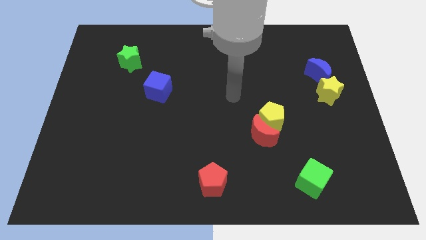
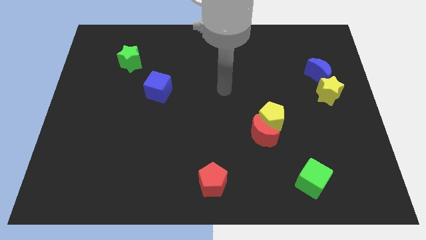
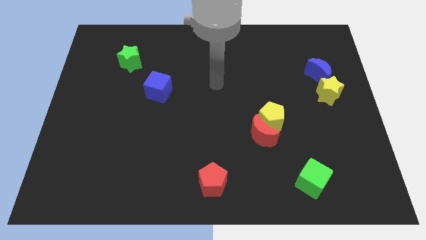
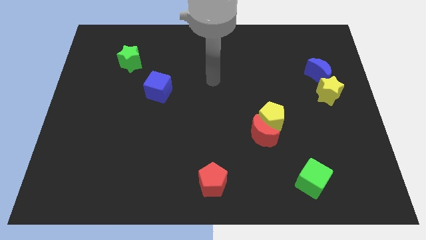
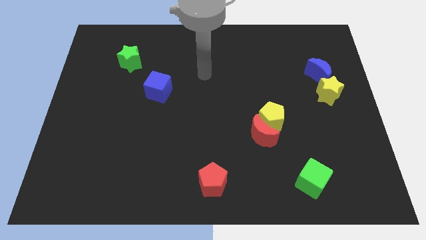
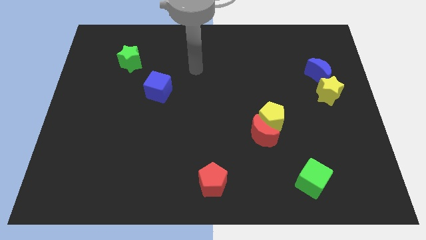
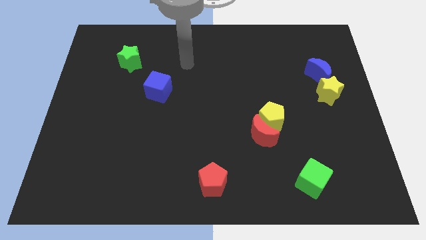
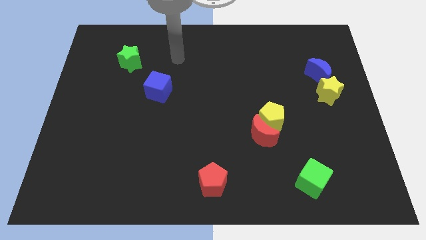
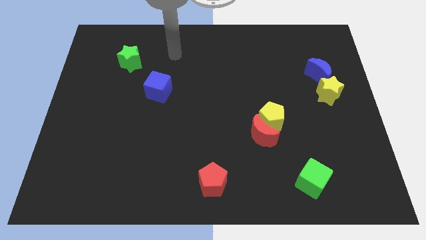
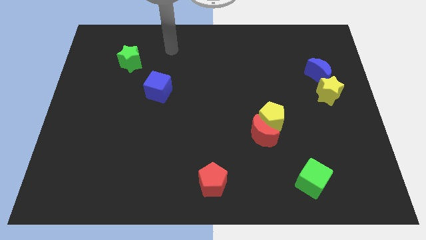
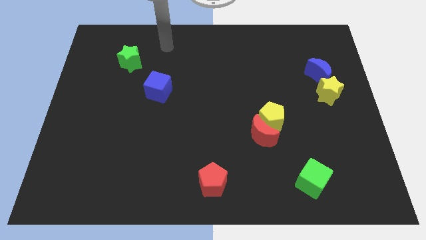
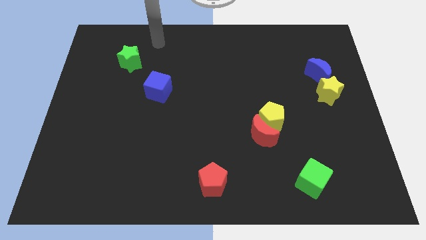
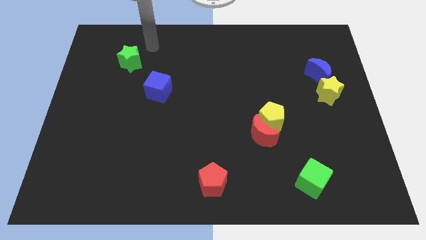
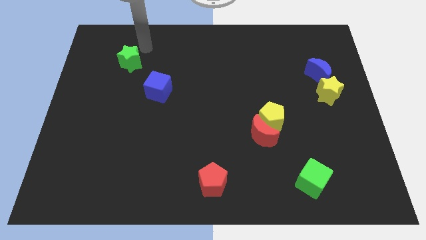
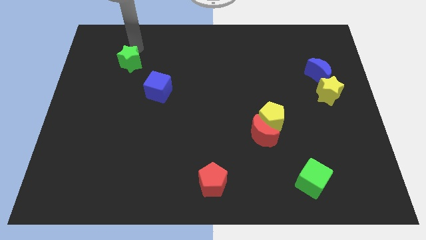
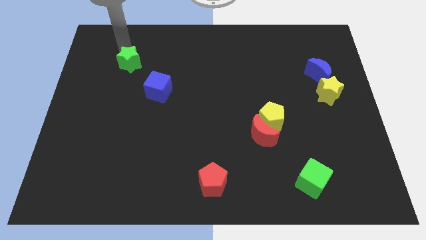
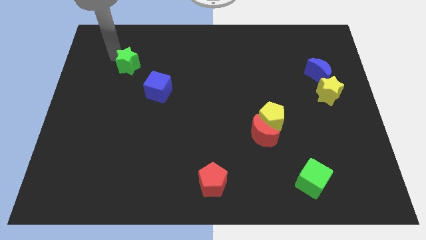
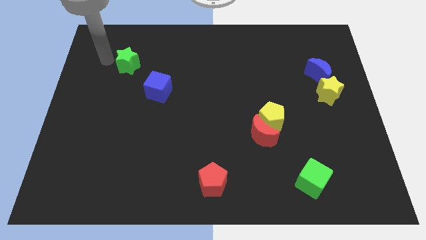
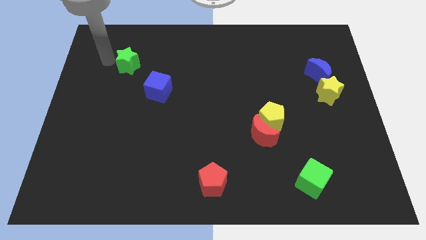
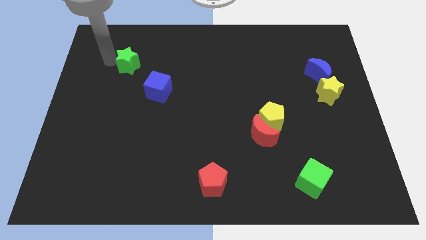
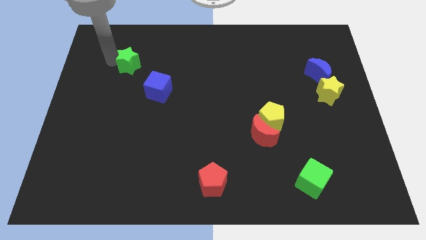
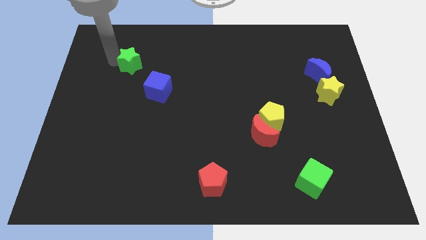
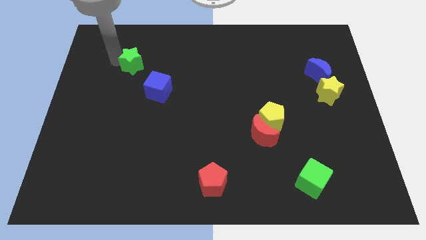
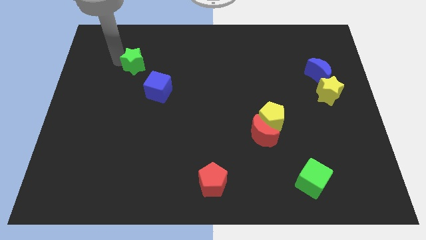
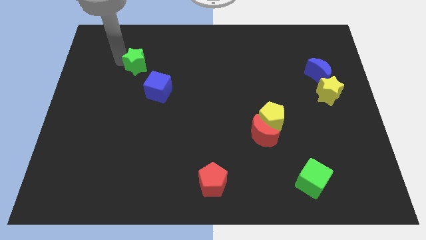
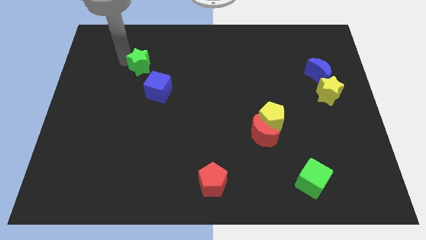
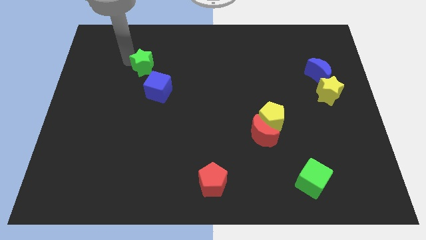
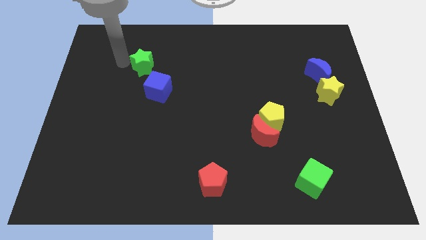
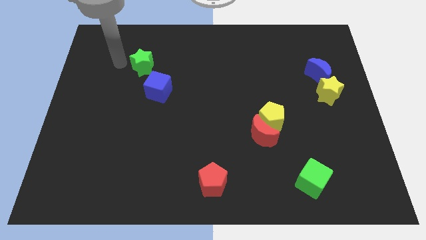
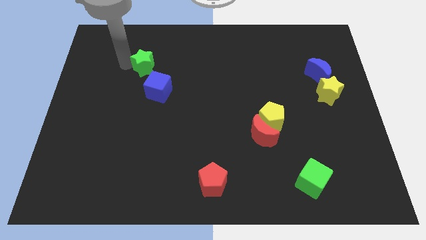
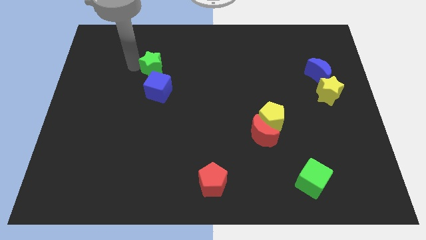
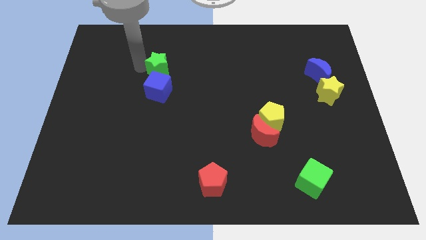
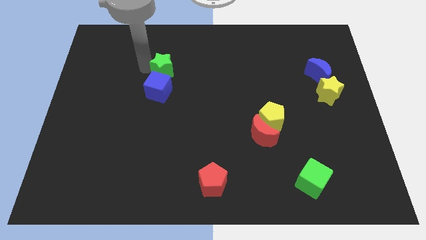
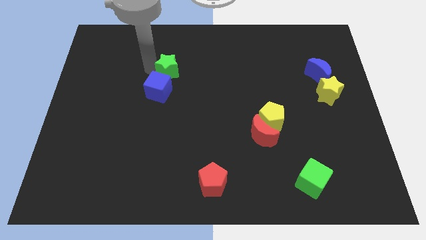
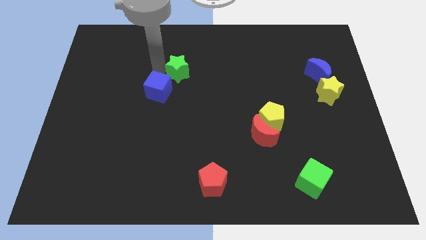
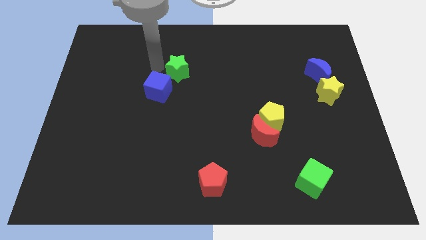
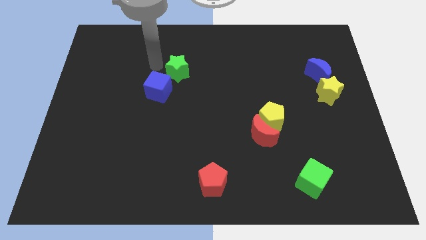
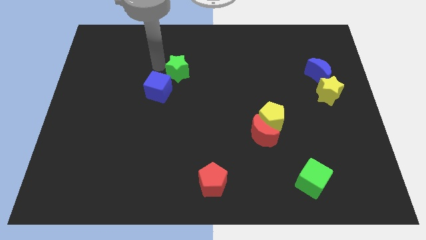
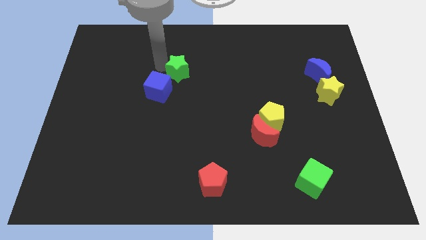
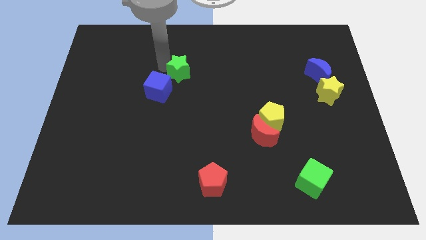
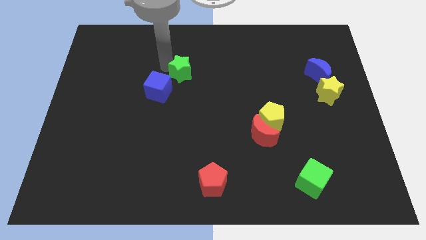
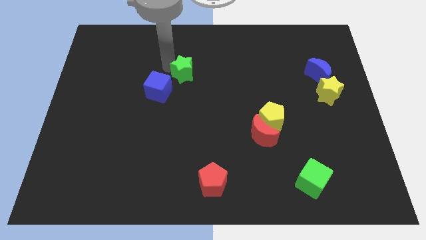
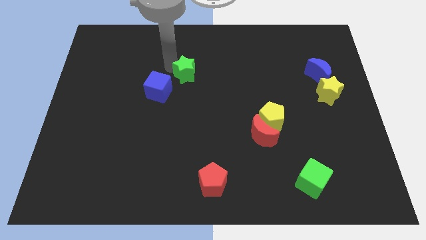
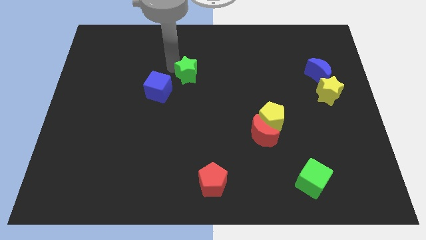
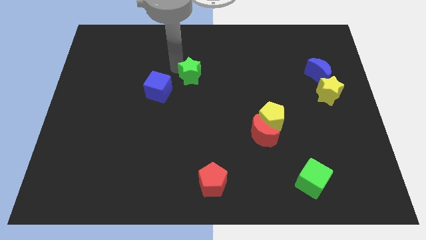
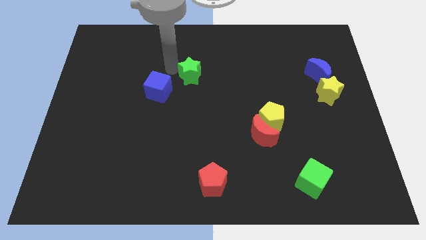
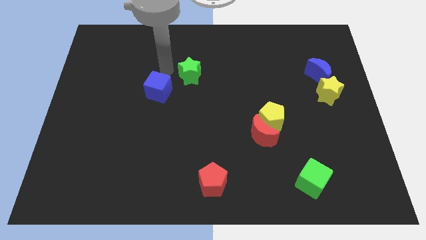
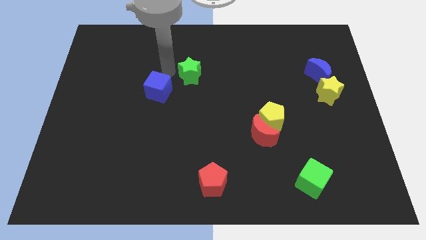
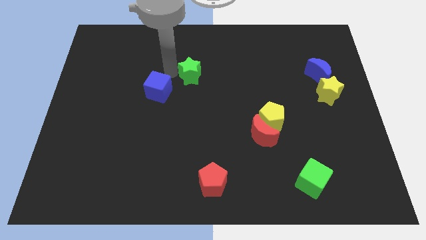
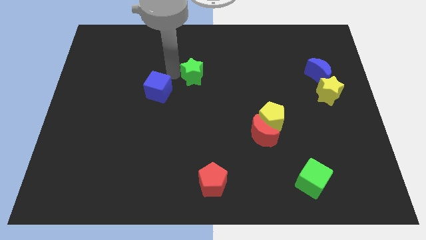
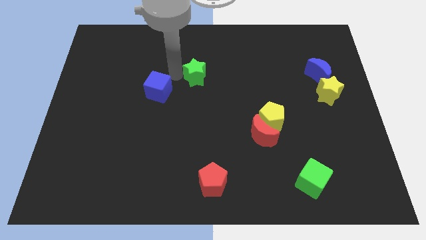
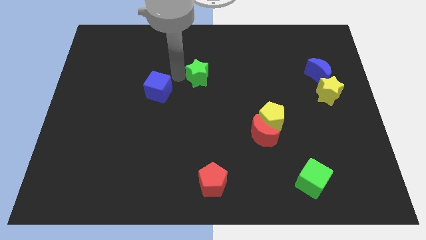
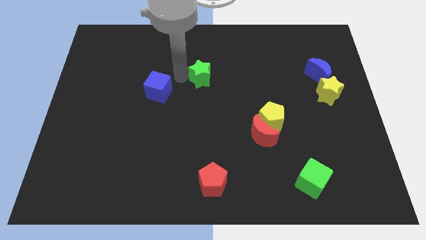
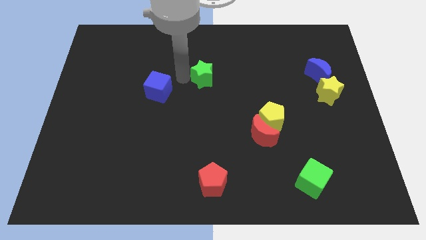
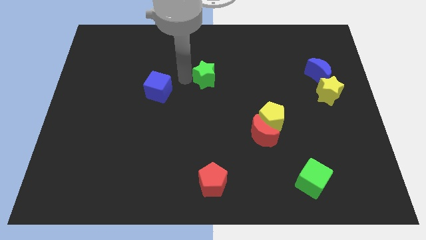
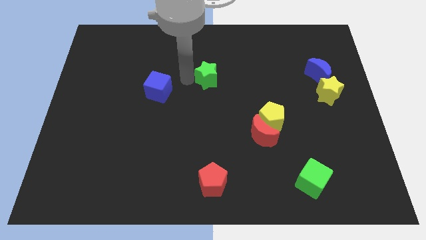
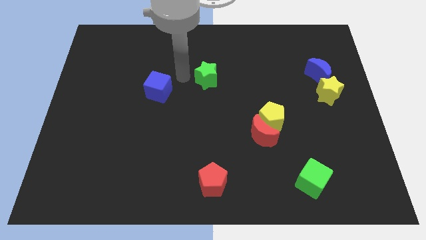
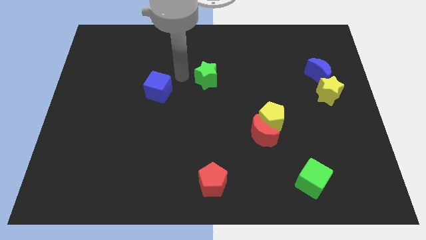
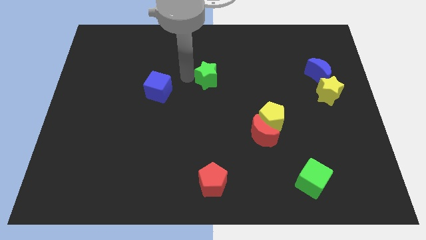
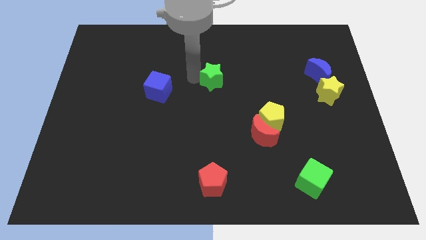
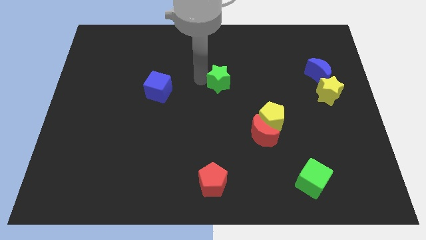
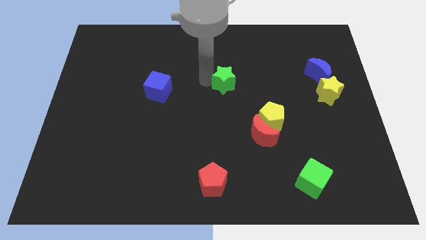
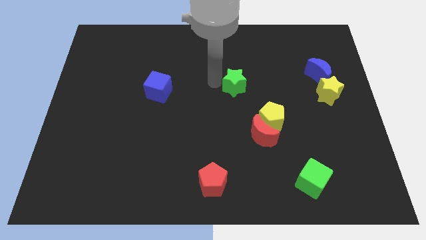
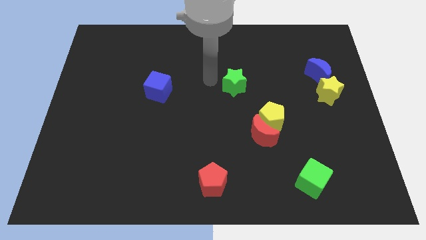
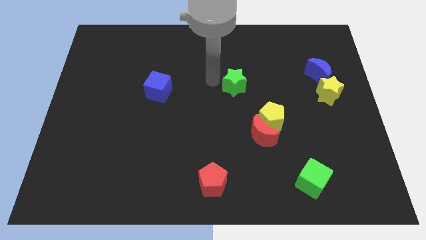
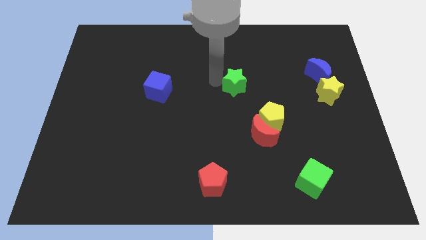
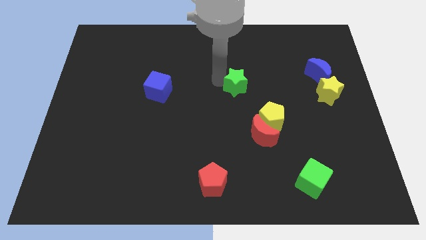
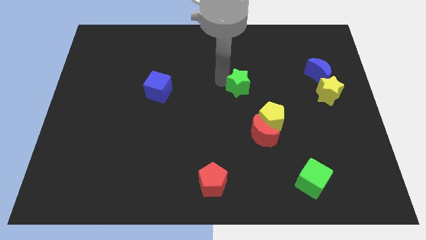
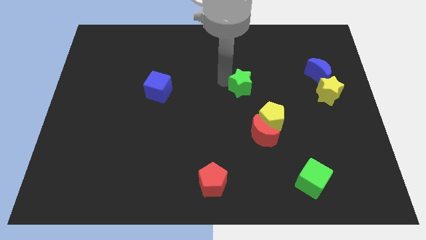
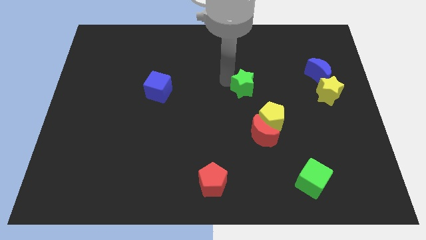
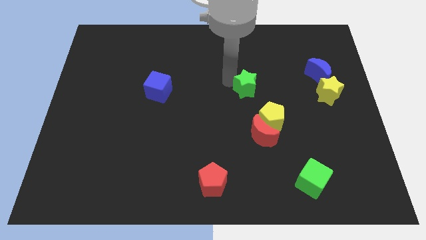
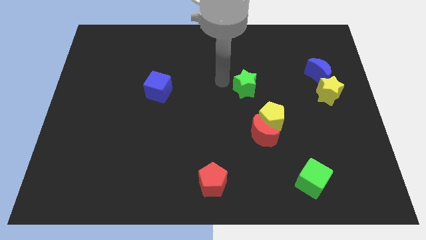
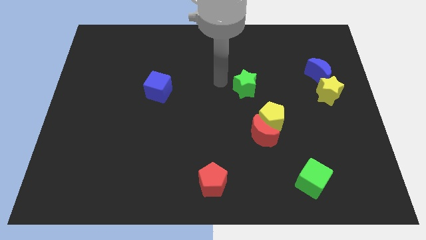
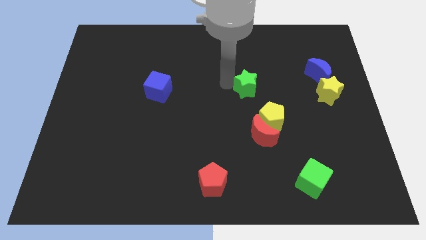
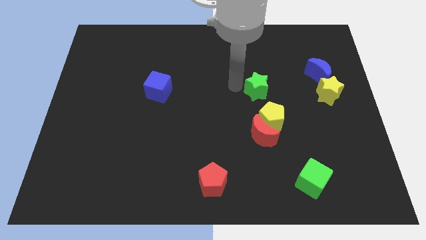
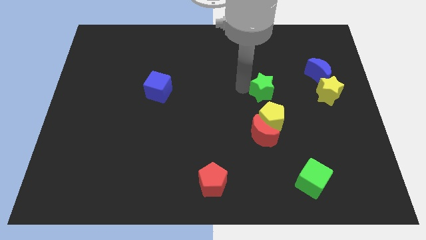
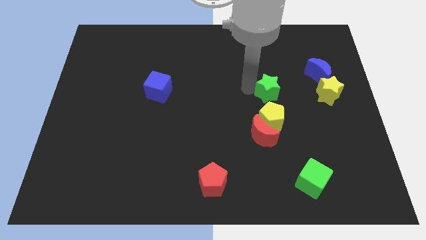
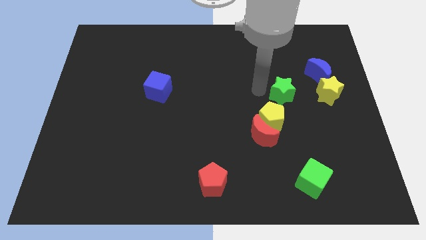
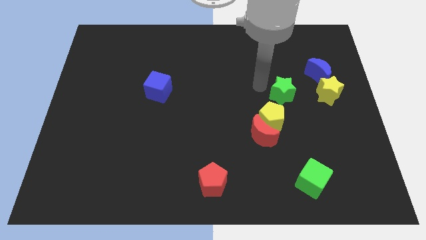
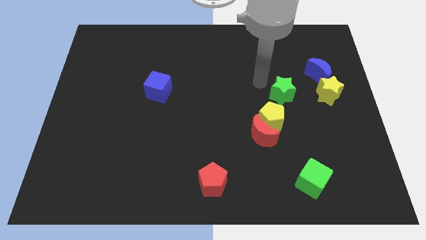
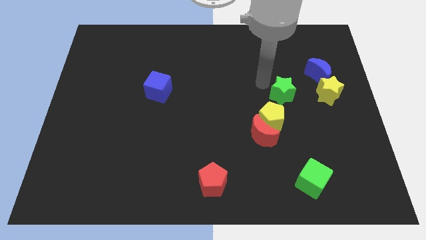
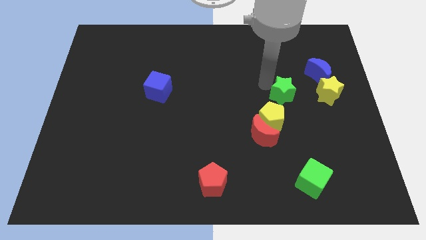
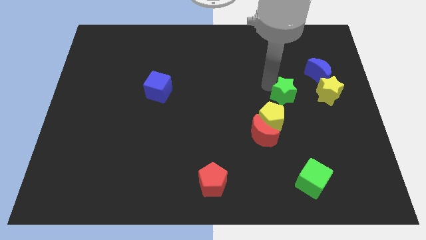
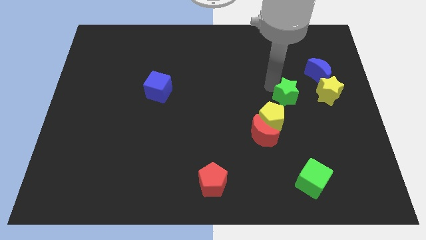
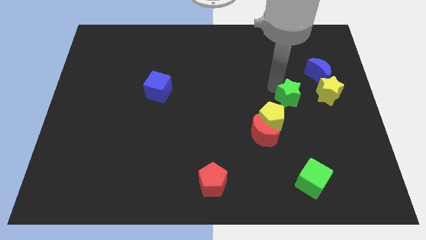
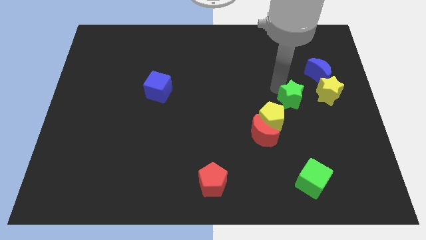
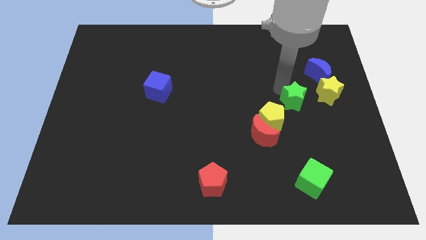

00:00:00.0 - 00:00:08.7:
push the green star to the bottom left of the yellow star
